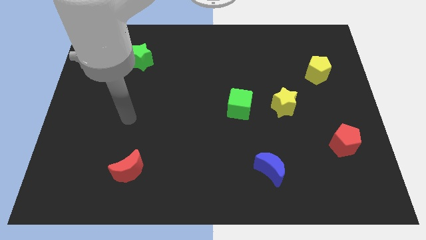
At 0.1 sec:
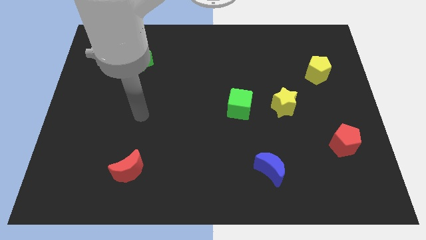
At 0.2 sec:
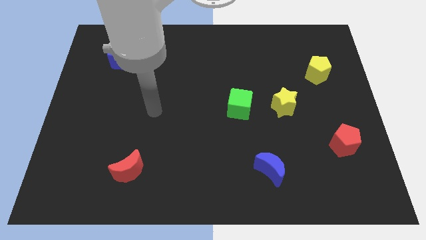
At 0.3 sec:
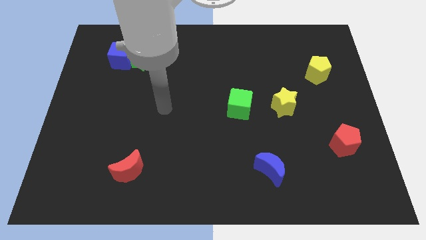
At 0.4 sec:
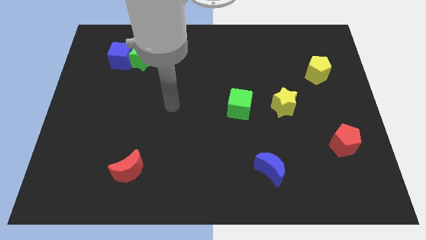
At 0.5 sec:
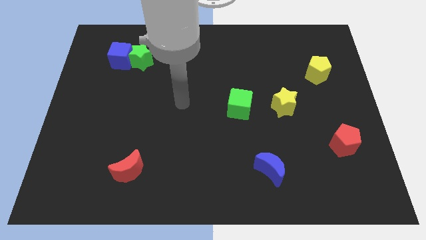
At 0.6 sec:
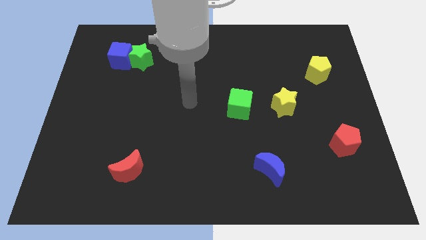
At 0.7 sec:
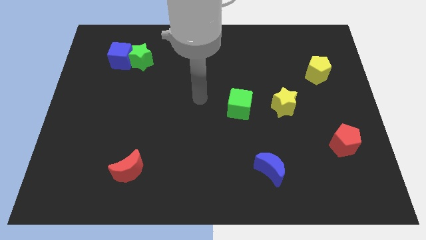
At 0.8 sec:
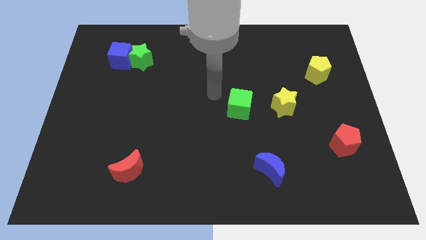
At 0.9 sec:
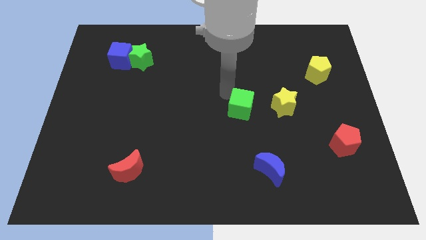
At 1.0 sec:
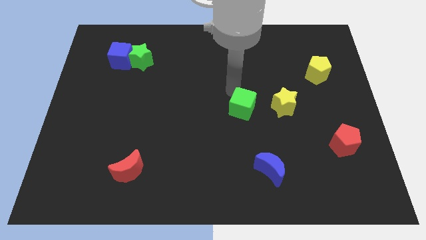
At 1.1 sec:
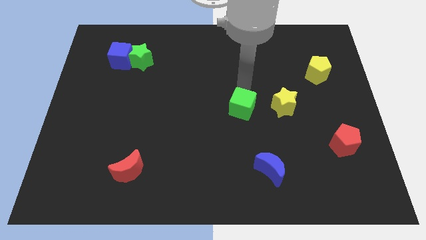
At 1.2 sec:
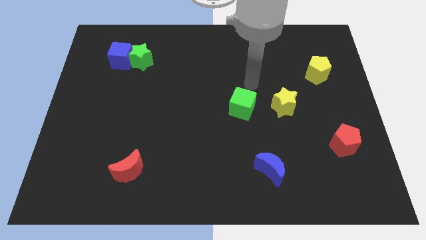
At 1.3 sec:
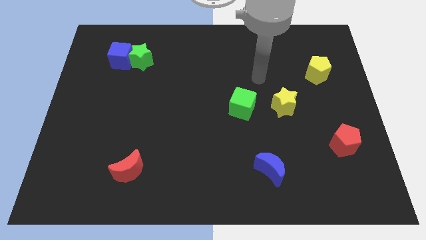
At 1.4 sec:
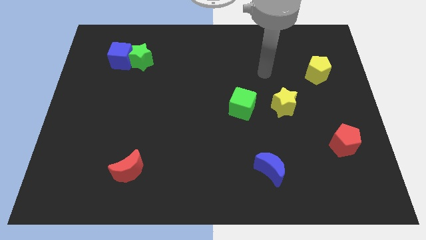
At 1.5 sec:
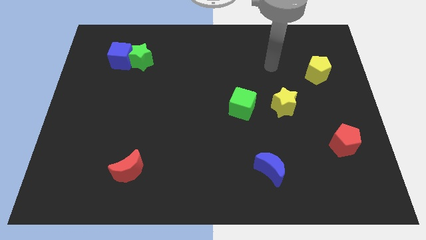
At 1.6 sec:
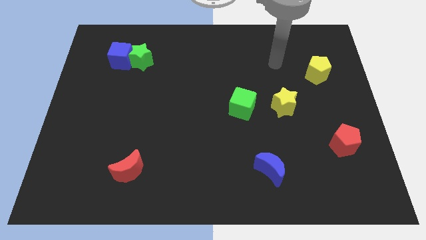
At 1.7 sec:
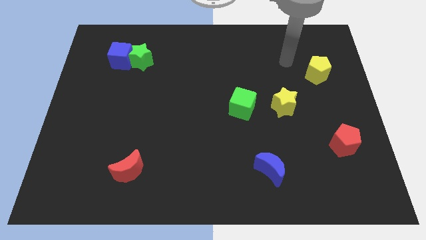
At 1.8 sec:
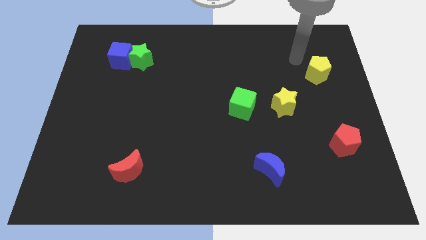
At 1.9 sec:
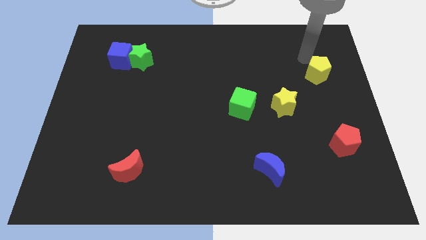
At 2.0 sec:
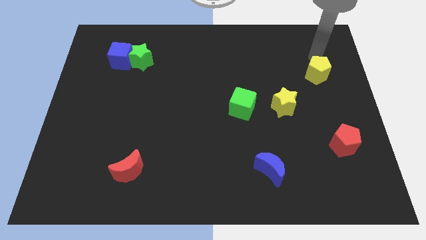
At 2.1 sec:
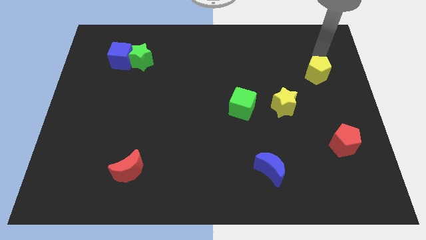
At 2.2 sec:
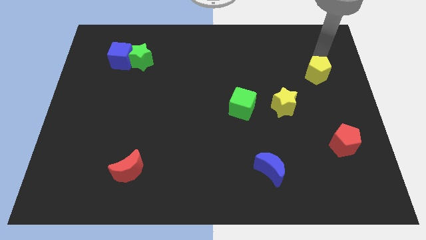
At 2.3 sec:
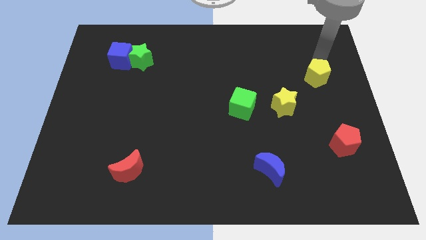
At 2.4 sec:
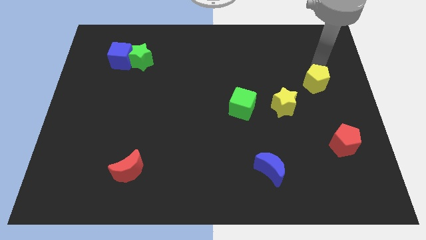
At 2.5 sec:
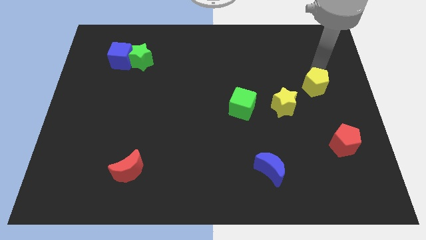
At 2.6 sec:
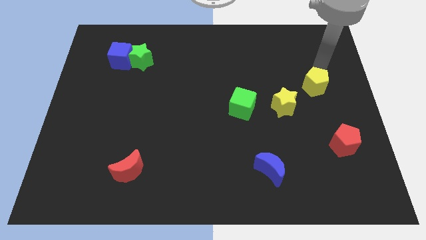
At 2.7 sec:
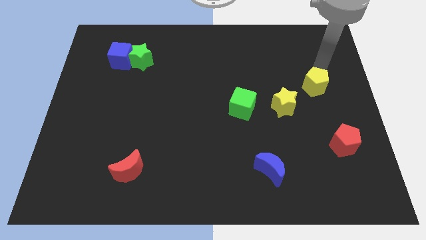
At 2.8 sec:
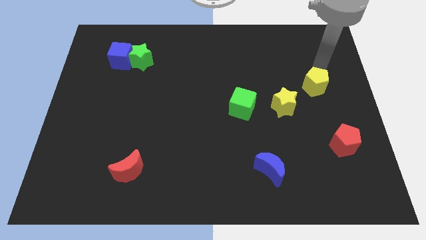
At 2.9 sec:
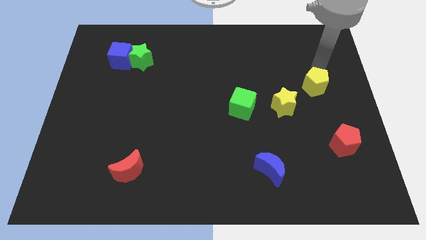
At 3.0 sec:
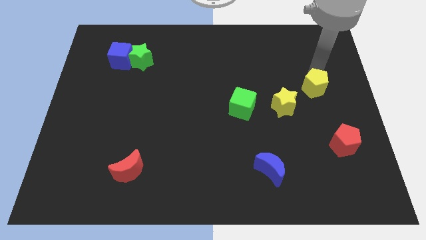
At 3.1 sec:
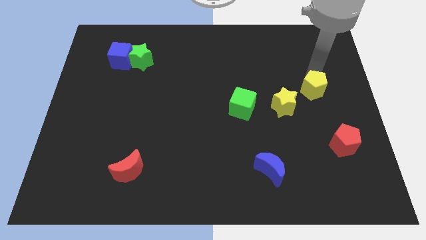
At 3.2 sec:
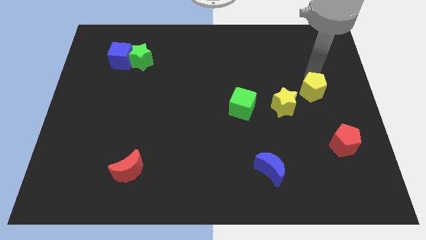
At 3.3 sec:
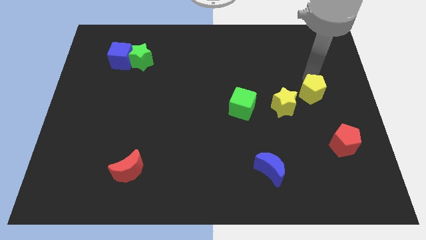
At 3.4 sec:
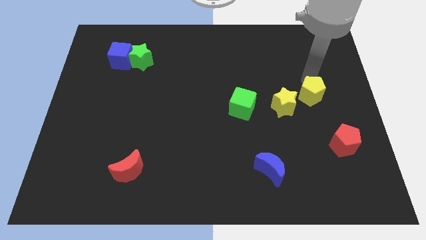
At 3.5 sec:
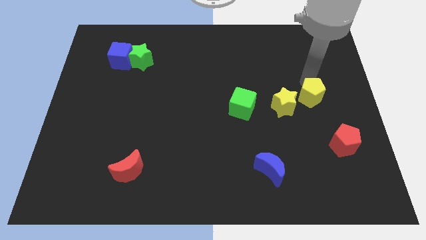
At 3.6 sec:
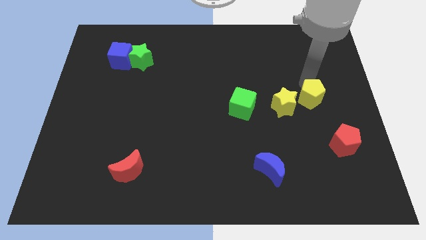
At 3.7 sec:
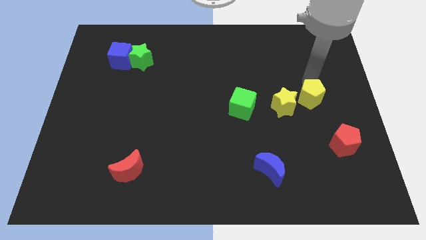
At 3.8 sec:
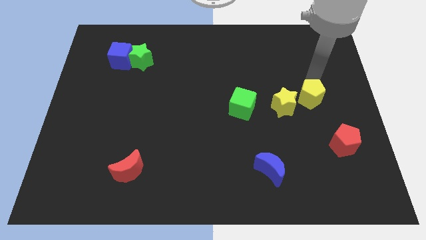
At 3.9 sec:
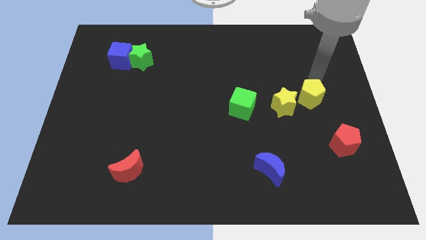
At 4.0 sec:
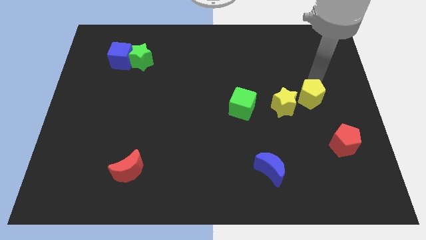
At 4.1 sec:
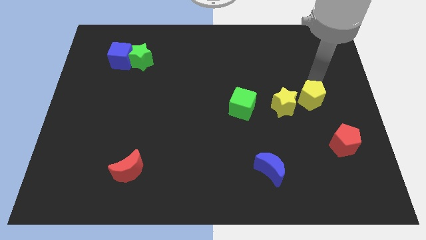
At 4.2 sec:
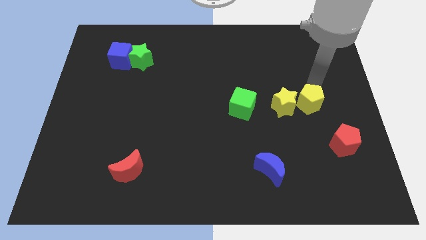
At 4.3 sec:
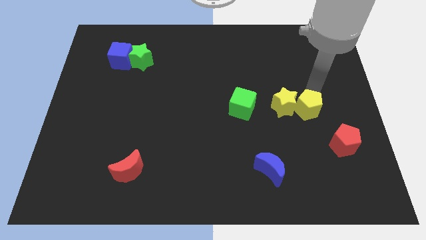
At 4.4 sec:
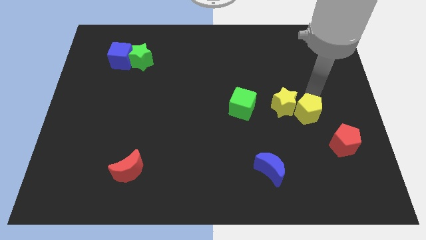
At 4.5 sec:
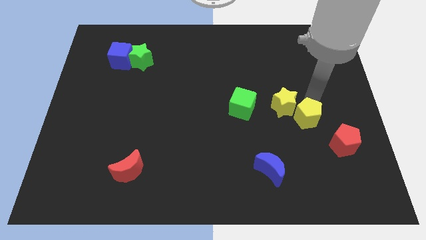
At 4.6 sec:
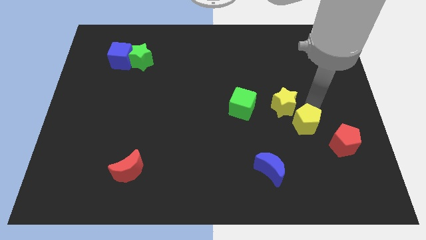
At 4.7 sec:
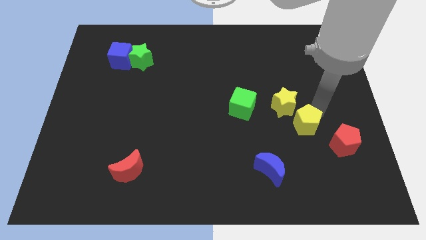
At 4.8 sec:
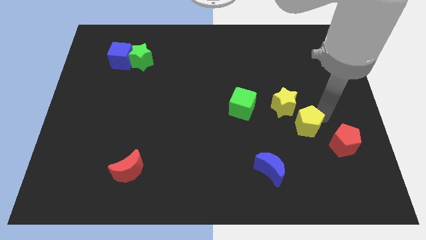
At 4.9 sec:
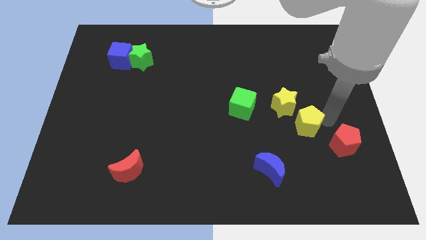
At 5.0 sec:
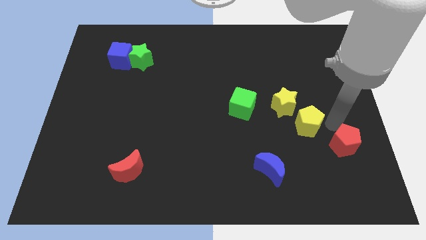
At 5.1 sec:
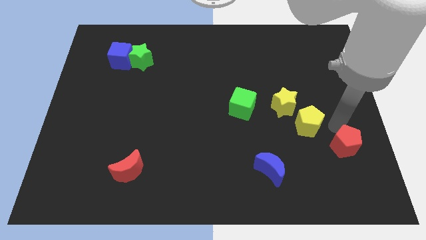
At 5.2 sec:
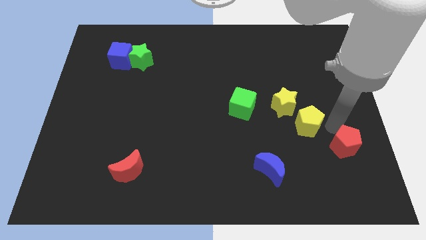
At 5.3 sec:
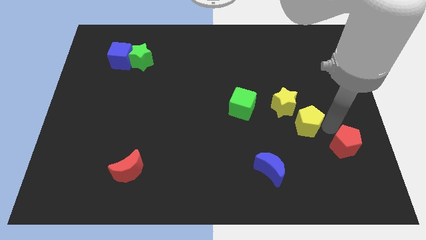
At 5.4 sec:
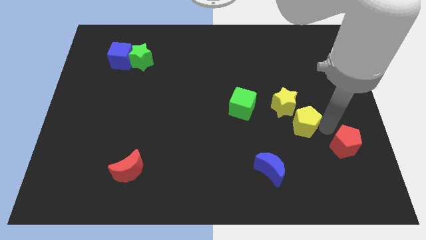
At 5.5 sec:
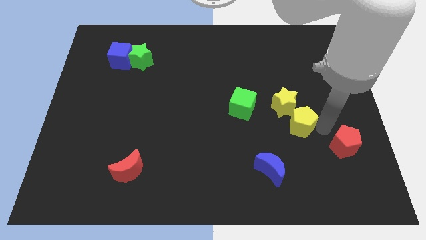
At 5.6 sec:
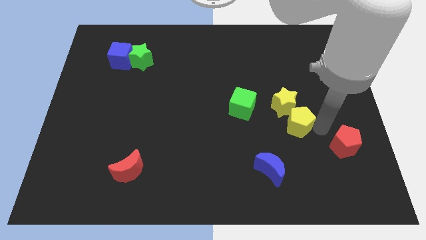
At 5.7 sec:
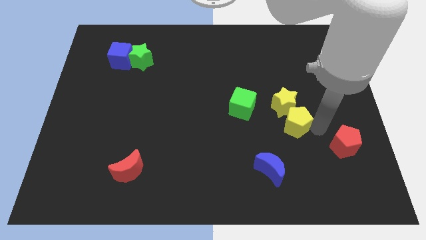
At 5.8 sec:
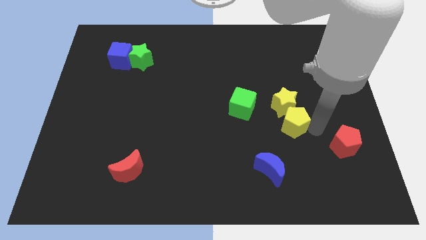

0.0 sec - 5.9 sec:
put the yellow pentagon to the bottom left side of the yellow star

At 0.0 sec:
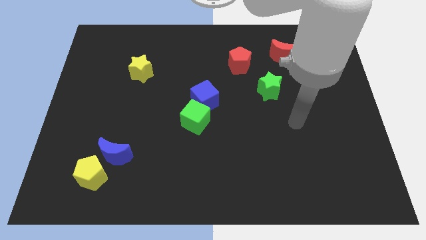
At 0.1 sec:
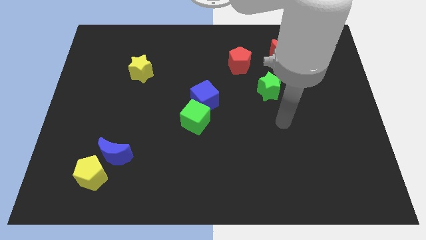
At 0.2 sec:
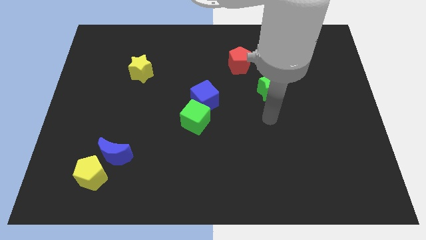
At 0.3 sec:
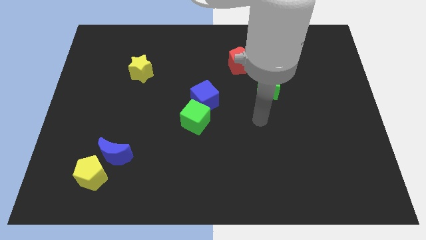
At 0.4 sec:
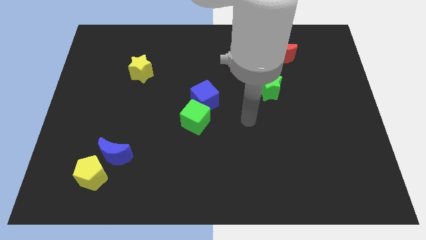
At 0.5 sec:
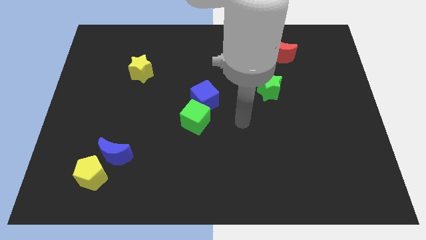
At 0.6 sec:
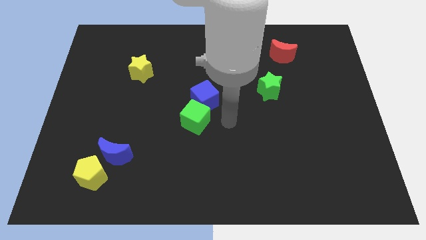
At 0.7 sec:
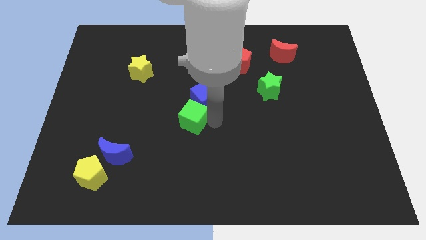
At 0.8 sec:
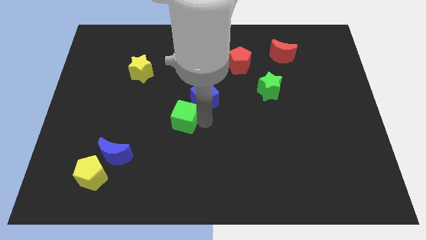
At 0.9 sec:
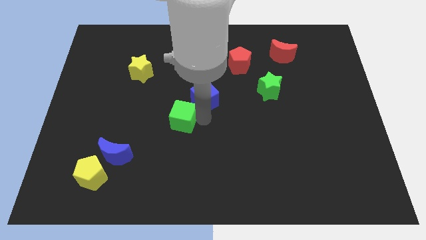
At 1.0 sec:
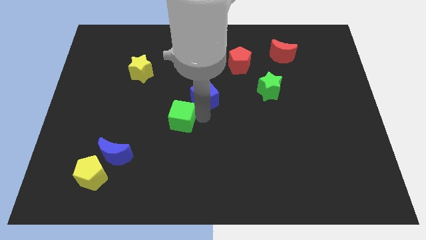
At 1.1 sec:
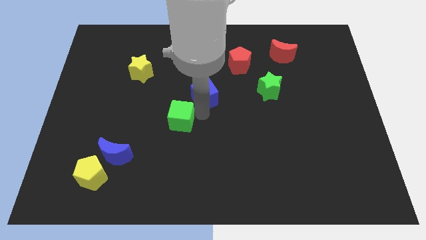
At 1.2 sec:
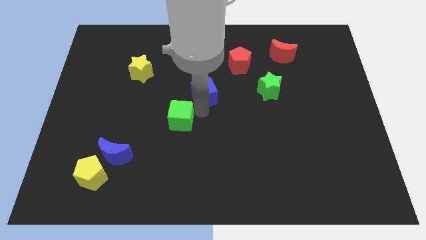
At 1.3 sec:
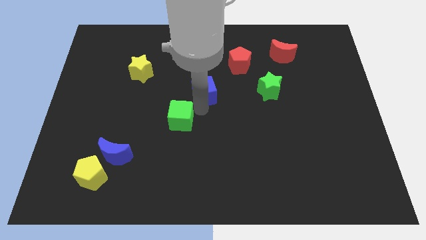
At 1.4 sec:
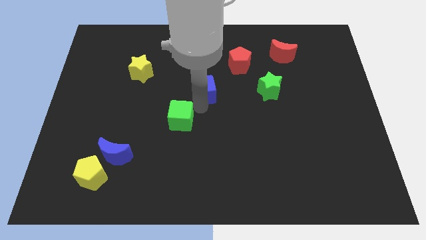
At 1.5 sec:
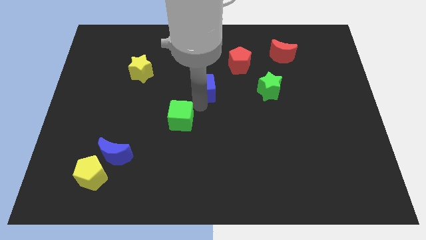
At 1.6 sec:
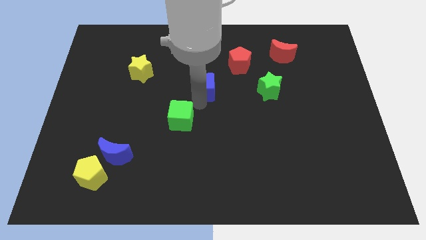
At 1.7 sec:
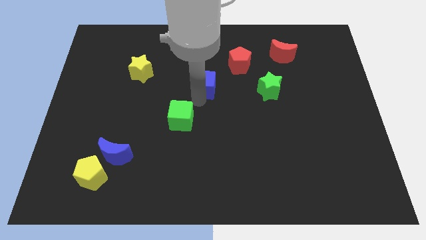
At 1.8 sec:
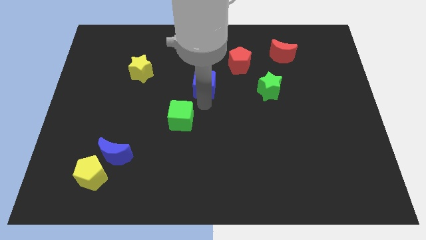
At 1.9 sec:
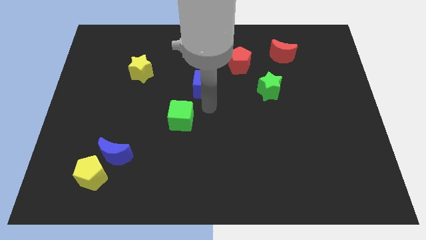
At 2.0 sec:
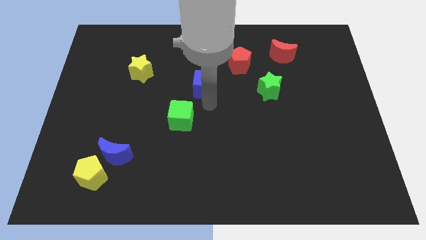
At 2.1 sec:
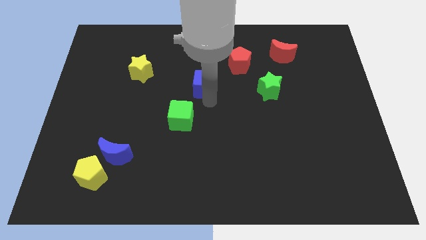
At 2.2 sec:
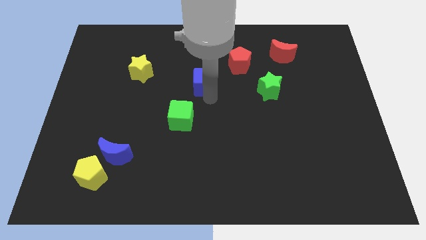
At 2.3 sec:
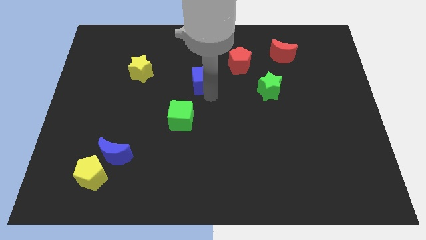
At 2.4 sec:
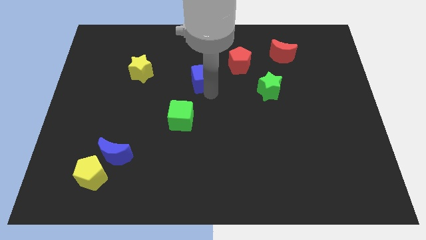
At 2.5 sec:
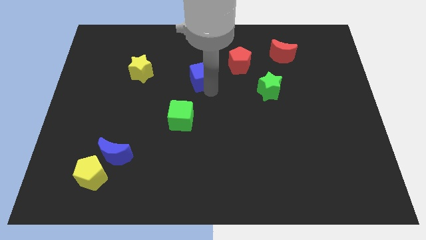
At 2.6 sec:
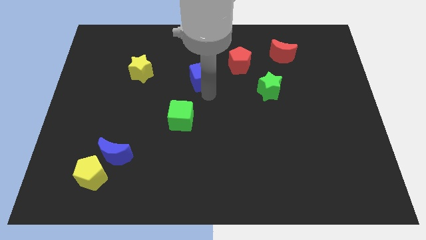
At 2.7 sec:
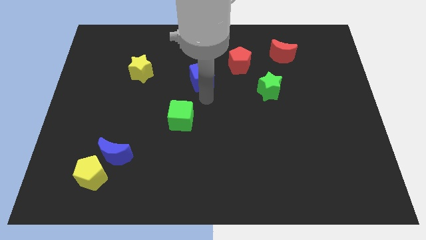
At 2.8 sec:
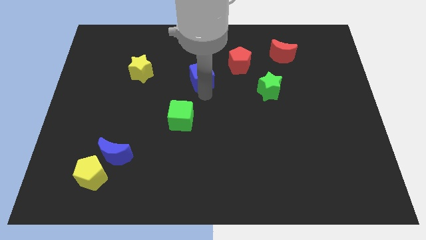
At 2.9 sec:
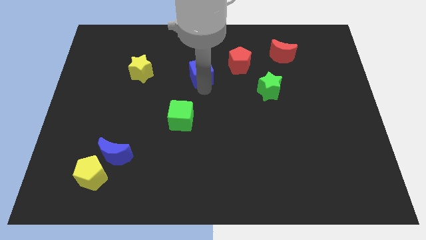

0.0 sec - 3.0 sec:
put the blue cube just left of the red pentagon
